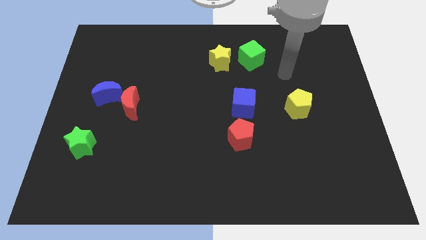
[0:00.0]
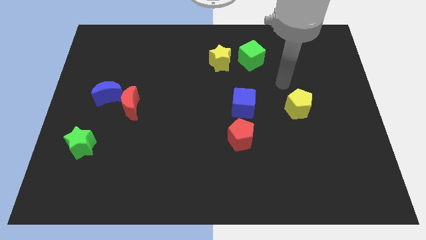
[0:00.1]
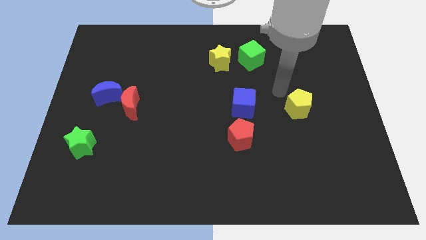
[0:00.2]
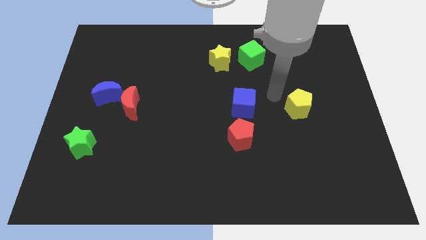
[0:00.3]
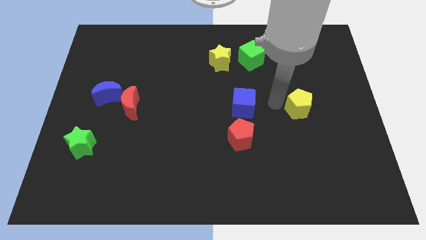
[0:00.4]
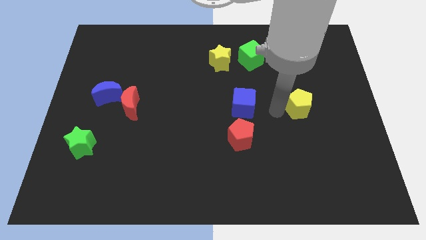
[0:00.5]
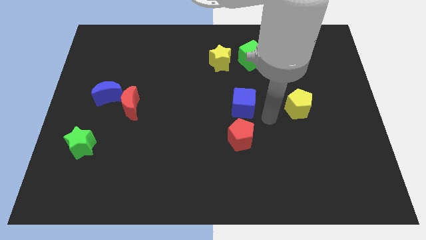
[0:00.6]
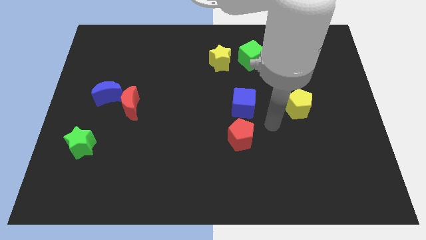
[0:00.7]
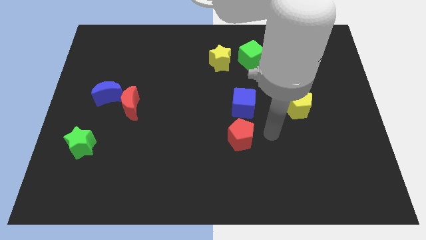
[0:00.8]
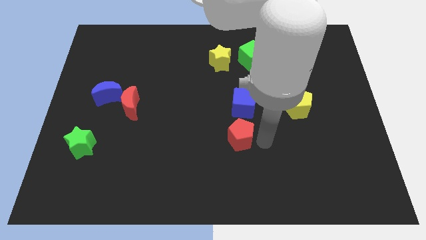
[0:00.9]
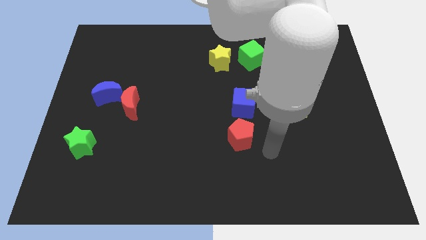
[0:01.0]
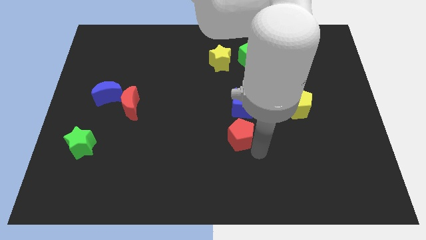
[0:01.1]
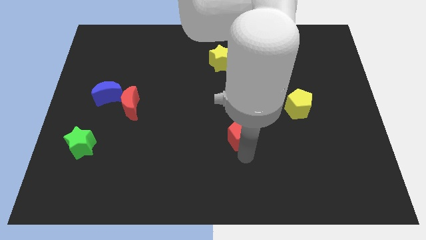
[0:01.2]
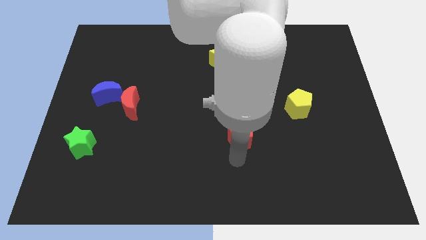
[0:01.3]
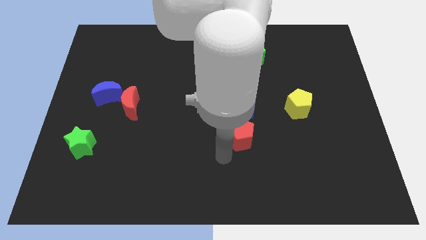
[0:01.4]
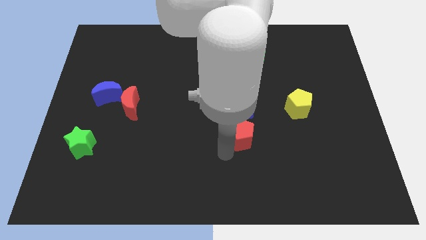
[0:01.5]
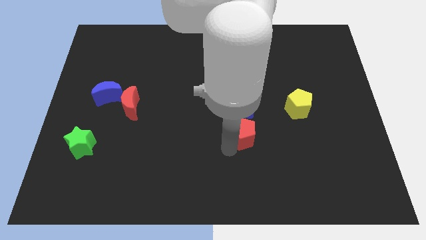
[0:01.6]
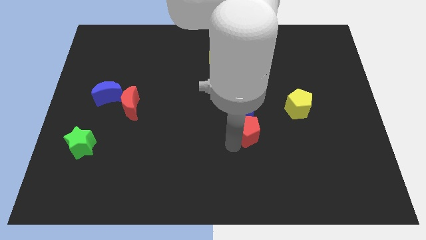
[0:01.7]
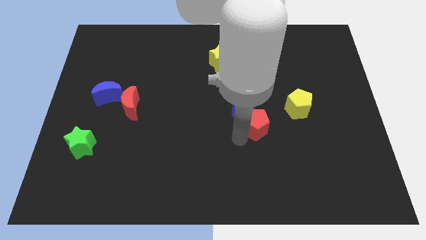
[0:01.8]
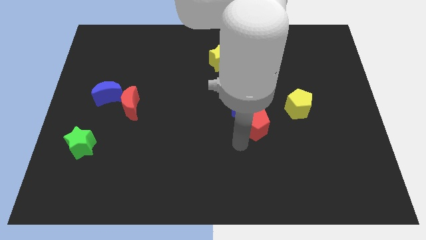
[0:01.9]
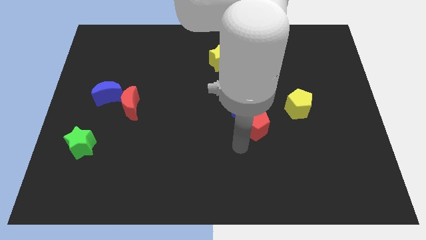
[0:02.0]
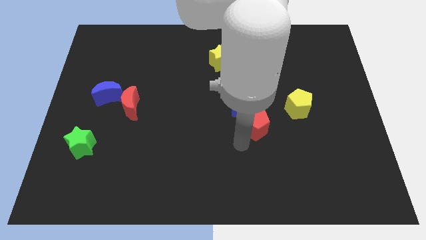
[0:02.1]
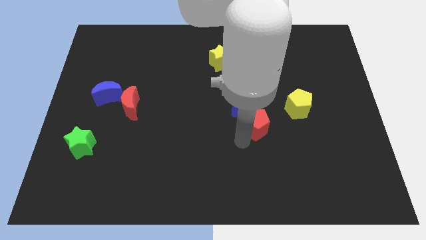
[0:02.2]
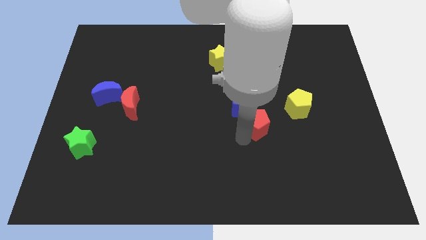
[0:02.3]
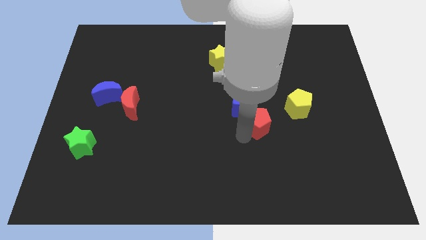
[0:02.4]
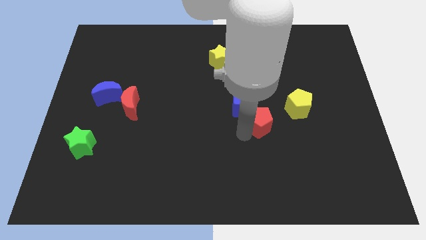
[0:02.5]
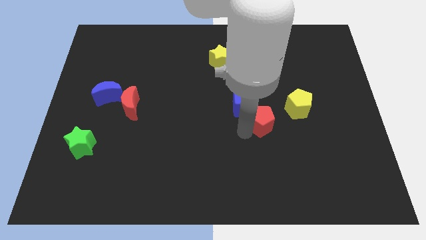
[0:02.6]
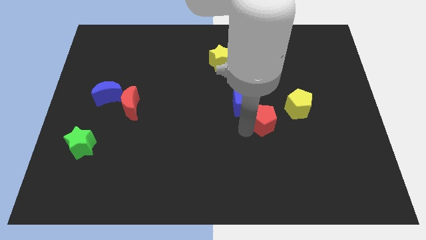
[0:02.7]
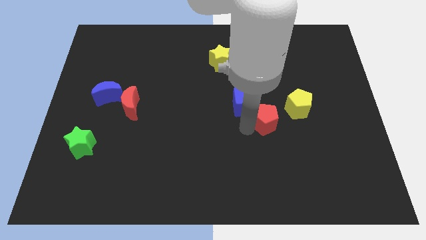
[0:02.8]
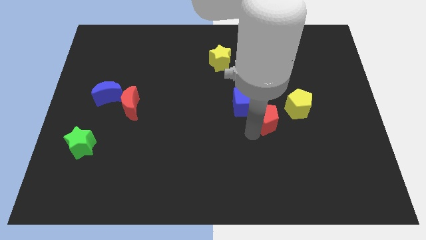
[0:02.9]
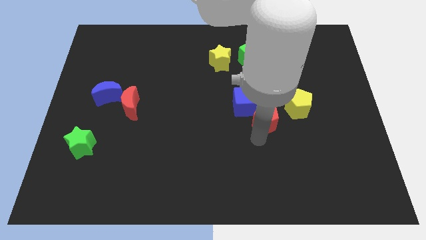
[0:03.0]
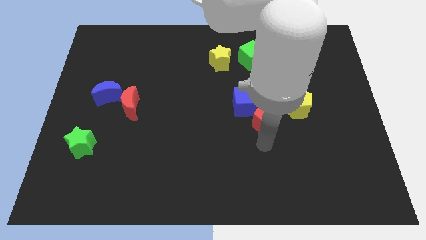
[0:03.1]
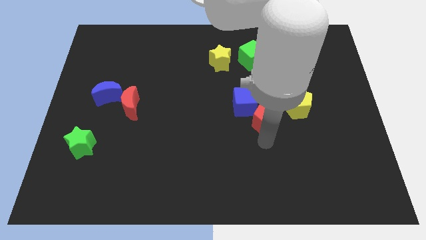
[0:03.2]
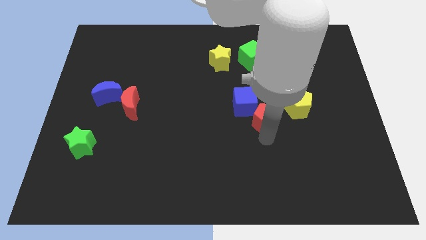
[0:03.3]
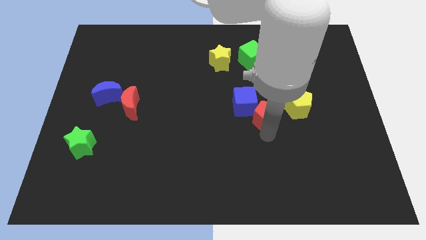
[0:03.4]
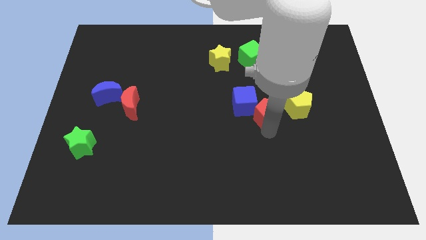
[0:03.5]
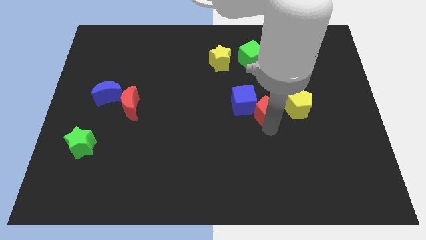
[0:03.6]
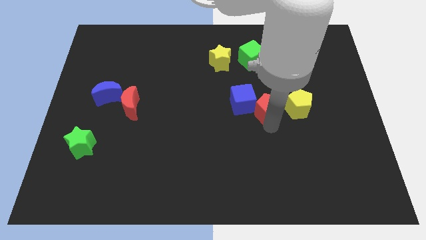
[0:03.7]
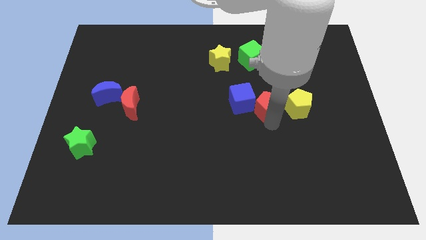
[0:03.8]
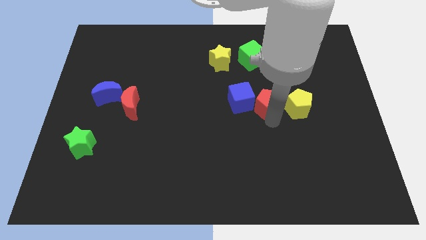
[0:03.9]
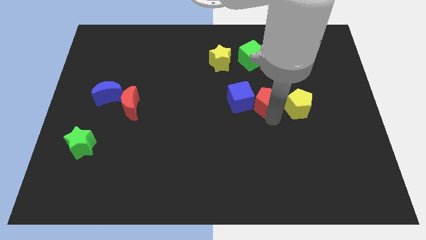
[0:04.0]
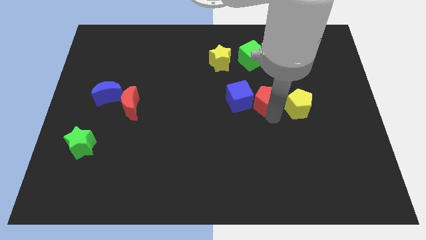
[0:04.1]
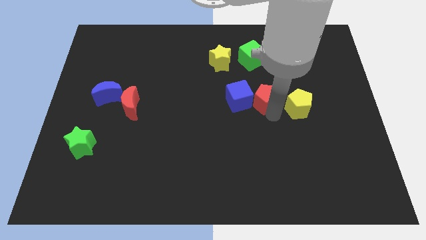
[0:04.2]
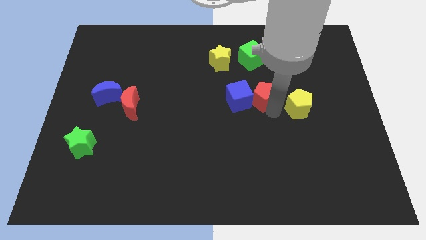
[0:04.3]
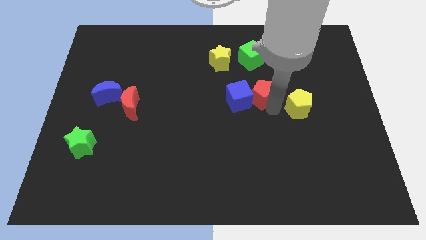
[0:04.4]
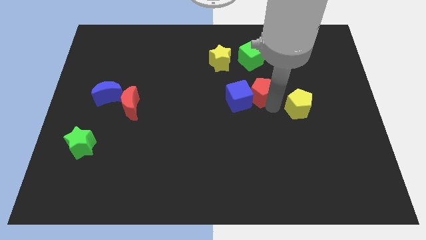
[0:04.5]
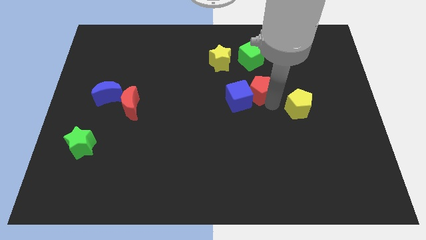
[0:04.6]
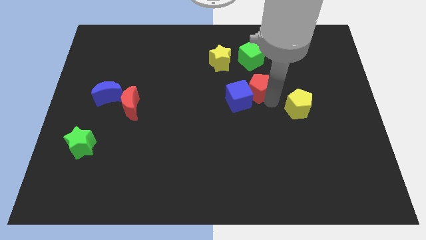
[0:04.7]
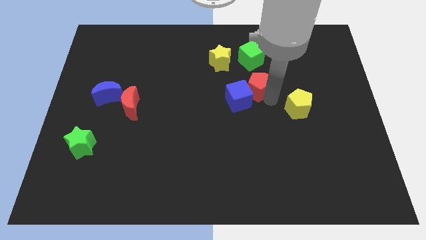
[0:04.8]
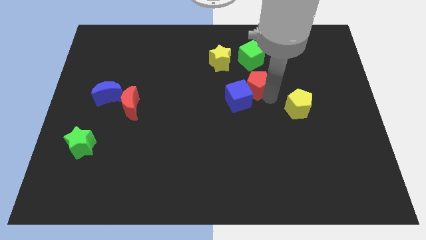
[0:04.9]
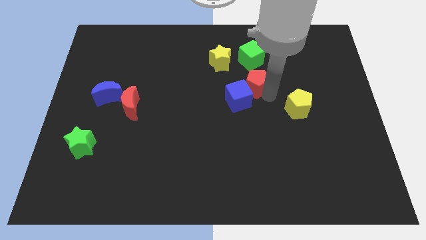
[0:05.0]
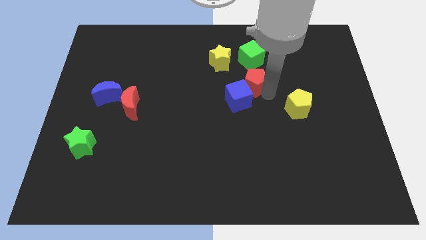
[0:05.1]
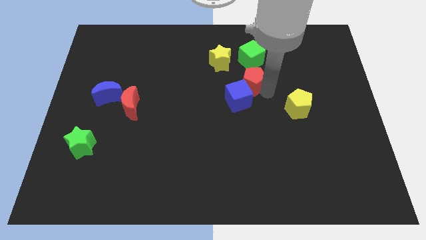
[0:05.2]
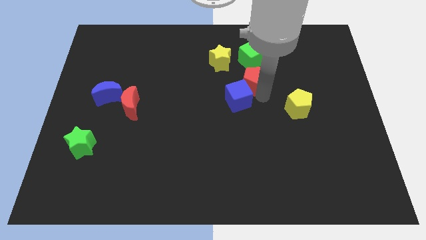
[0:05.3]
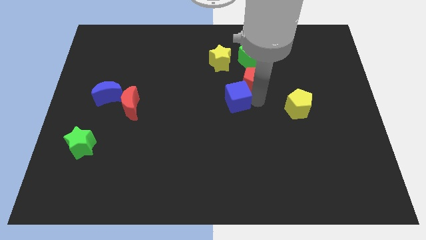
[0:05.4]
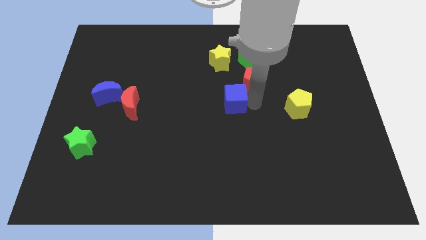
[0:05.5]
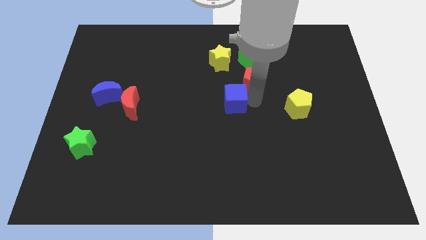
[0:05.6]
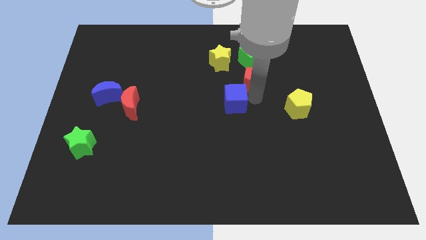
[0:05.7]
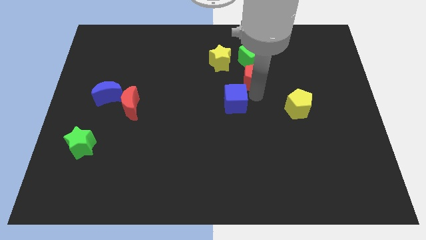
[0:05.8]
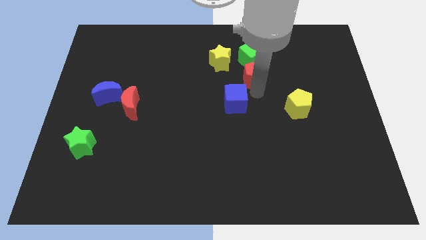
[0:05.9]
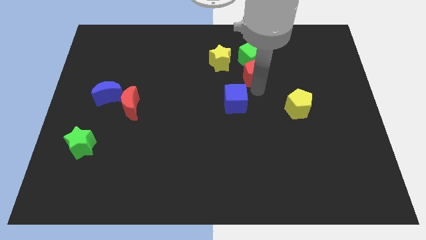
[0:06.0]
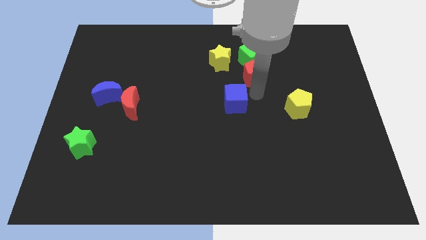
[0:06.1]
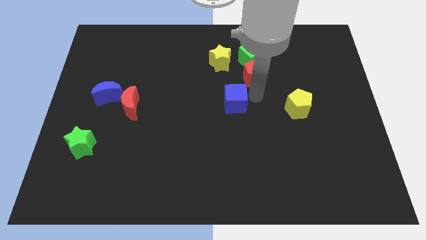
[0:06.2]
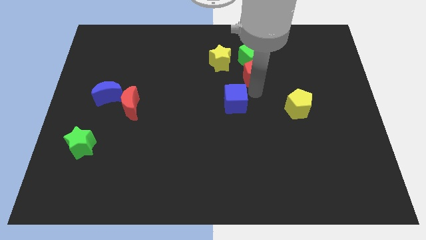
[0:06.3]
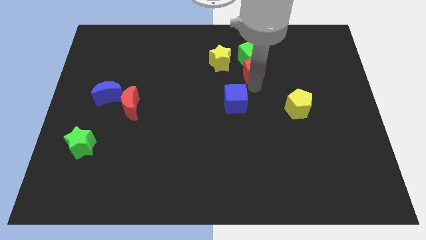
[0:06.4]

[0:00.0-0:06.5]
move the red pentagon towards the green cube

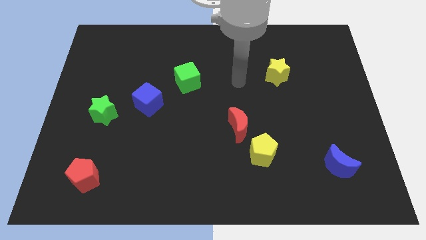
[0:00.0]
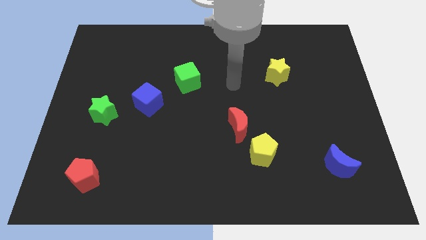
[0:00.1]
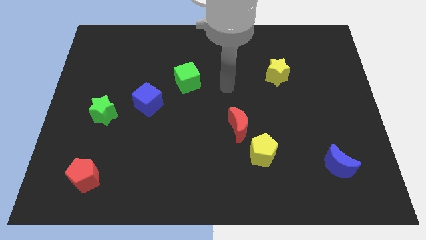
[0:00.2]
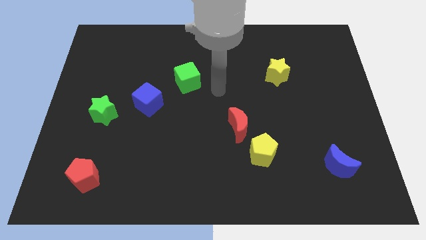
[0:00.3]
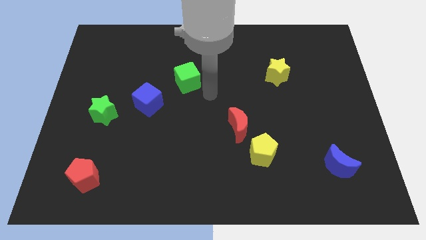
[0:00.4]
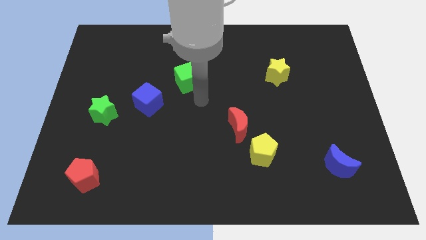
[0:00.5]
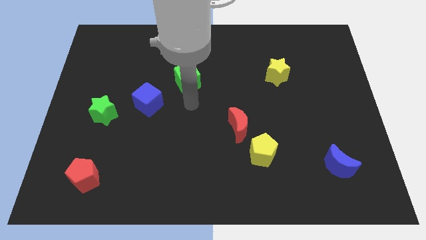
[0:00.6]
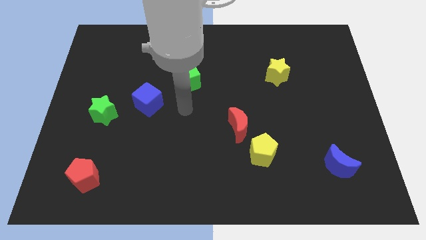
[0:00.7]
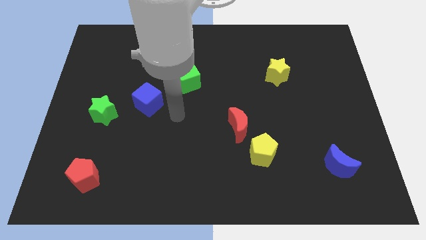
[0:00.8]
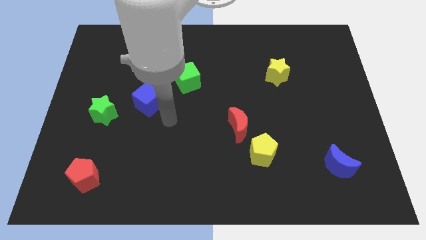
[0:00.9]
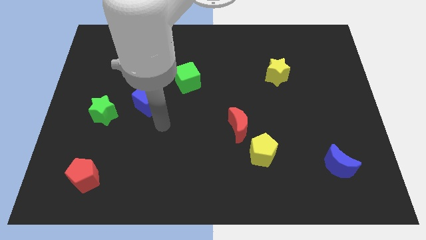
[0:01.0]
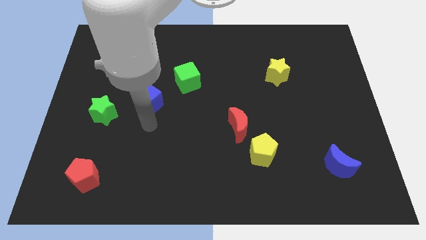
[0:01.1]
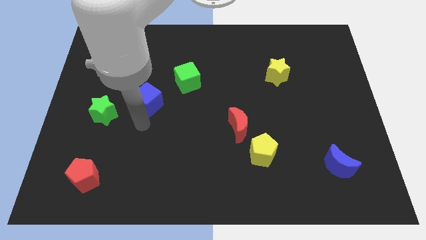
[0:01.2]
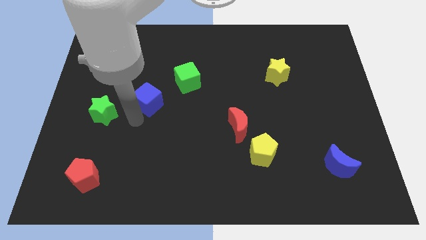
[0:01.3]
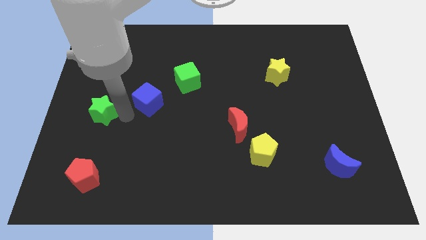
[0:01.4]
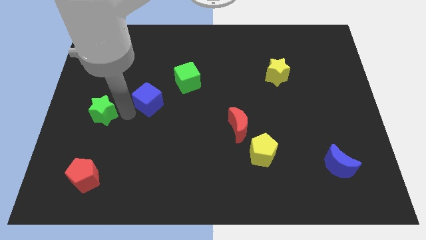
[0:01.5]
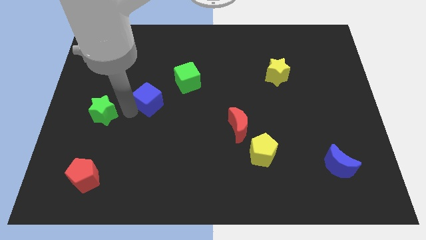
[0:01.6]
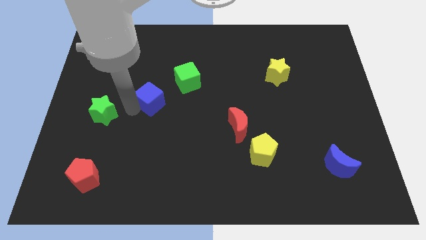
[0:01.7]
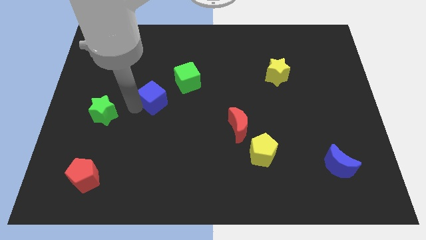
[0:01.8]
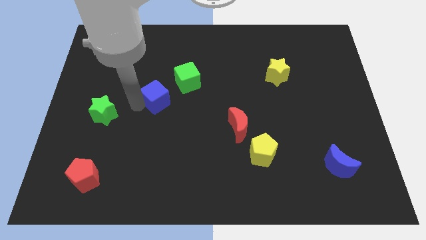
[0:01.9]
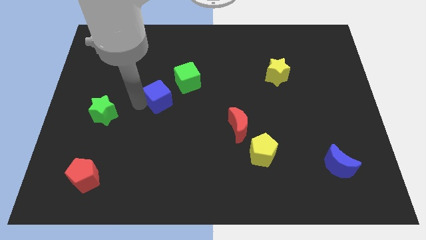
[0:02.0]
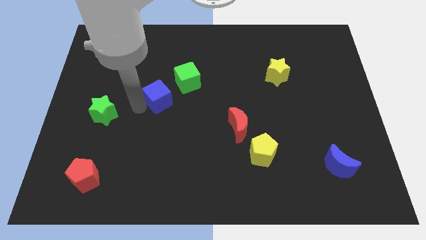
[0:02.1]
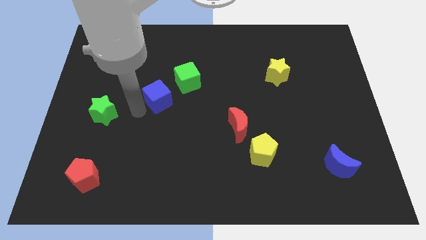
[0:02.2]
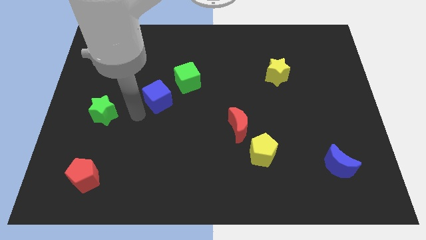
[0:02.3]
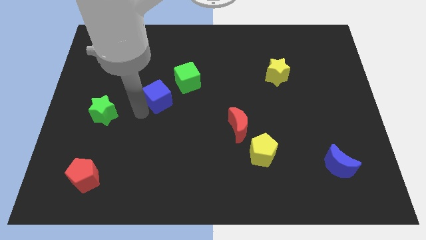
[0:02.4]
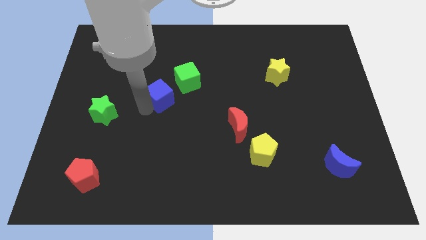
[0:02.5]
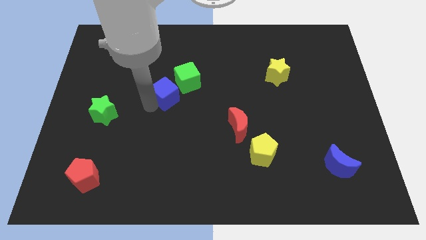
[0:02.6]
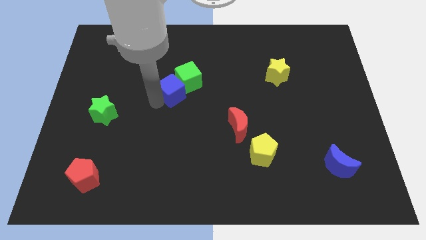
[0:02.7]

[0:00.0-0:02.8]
put the blue cube next to the green cube
